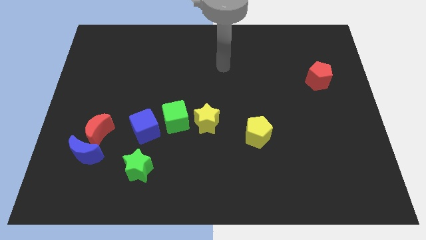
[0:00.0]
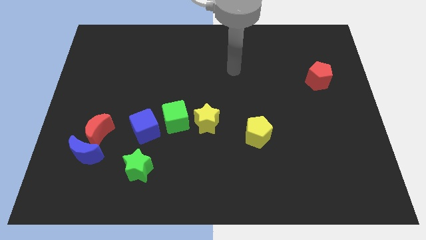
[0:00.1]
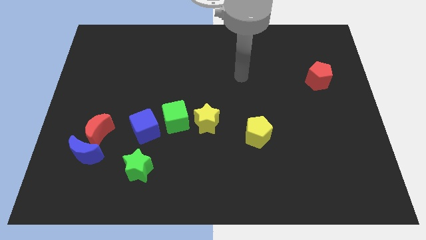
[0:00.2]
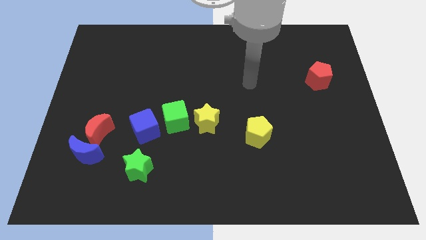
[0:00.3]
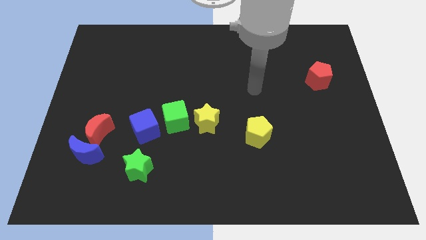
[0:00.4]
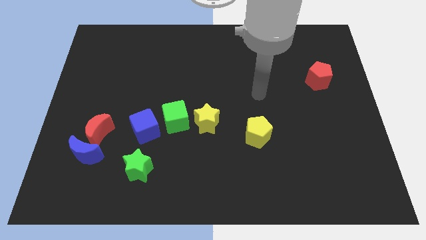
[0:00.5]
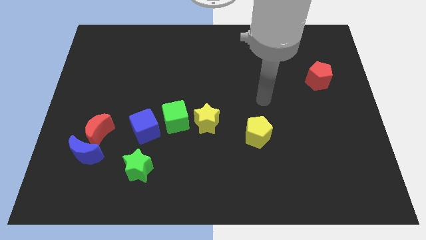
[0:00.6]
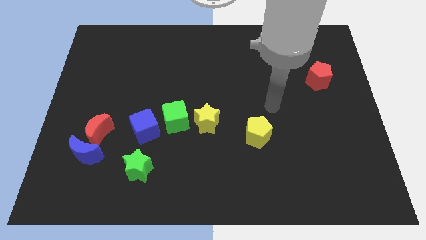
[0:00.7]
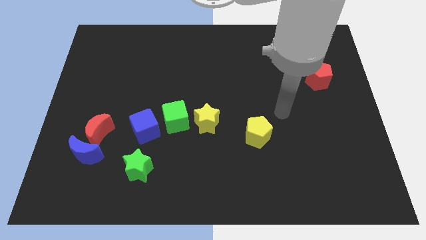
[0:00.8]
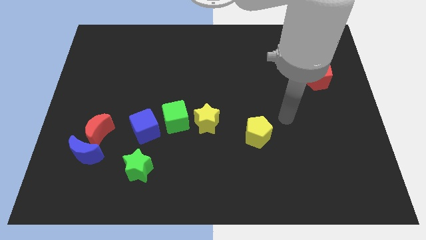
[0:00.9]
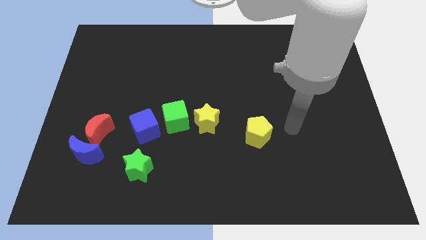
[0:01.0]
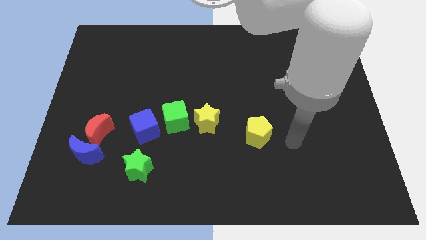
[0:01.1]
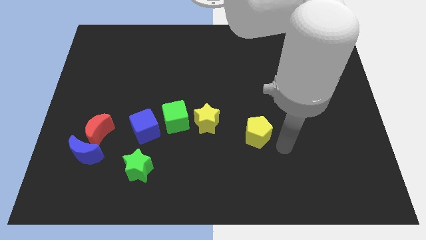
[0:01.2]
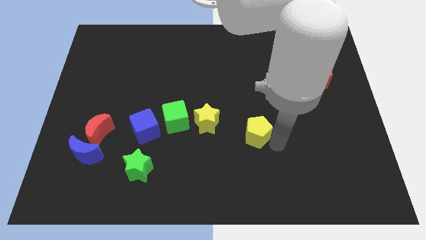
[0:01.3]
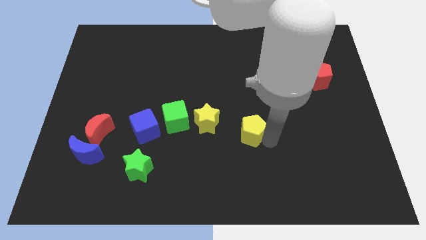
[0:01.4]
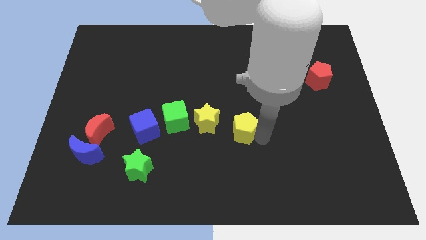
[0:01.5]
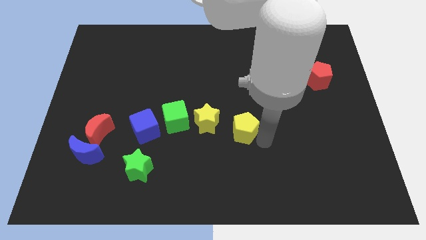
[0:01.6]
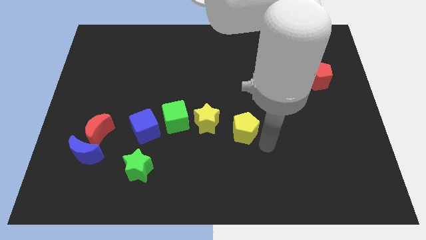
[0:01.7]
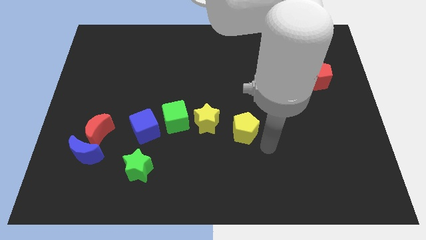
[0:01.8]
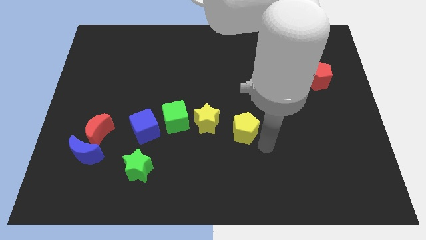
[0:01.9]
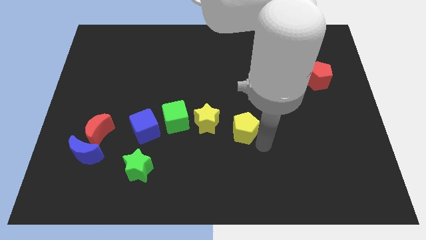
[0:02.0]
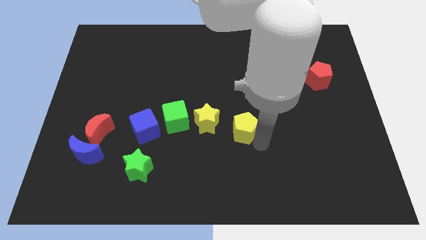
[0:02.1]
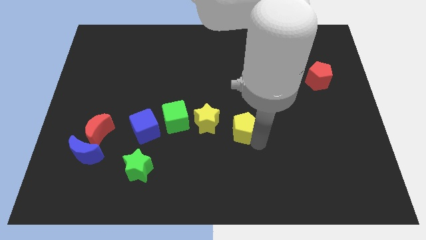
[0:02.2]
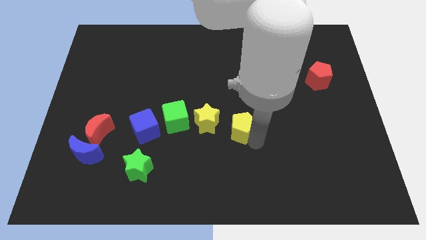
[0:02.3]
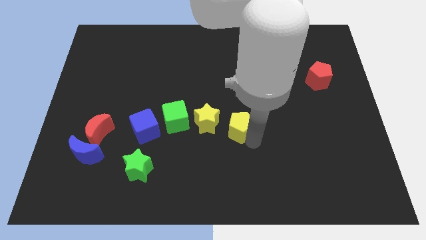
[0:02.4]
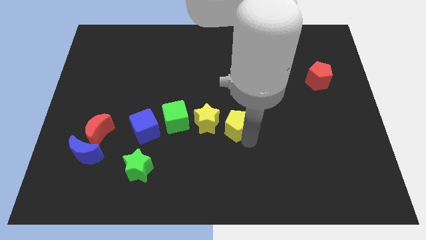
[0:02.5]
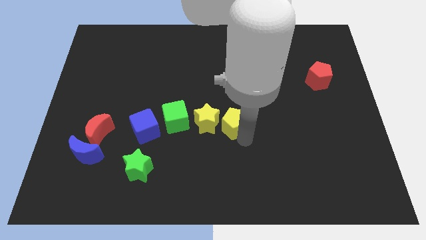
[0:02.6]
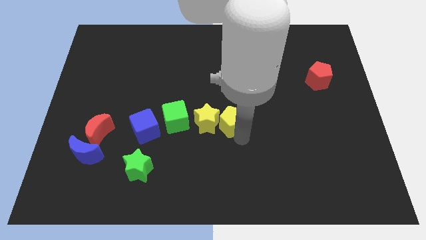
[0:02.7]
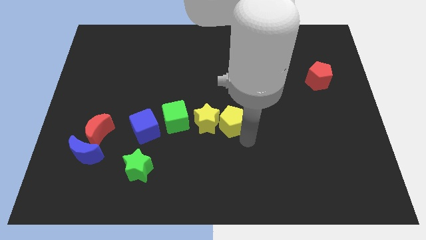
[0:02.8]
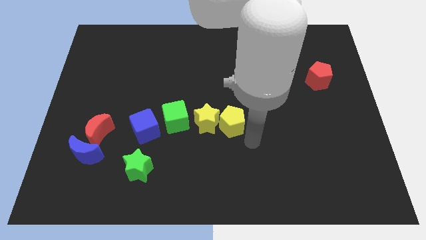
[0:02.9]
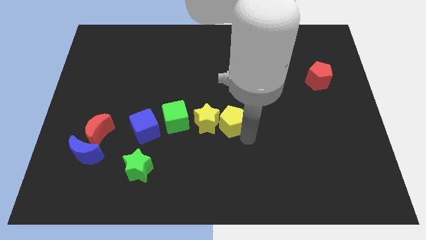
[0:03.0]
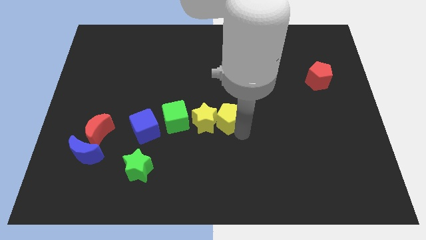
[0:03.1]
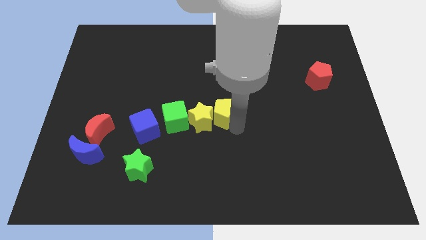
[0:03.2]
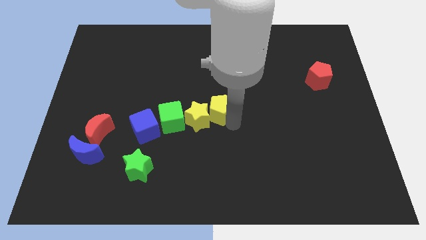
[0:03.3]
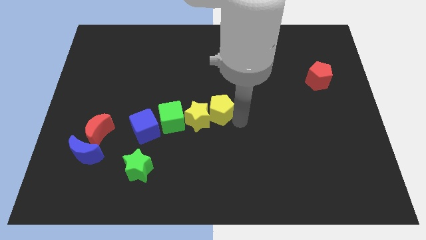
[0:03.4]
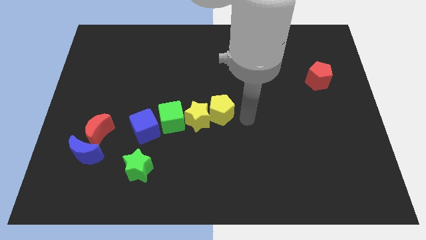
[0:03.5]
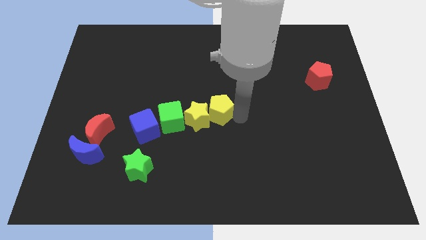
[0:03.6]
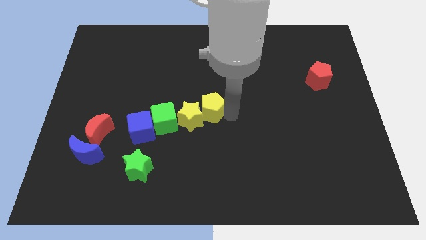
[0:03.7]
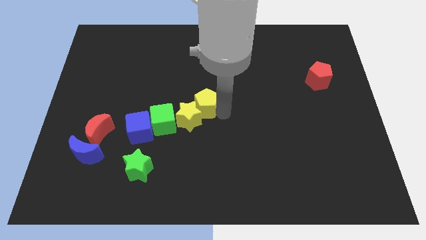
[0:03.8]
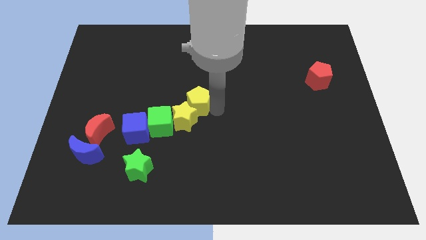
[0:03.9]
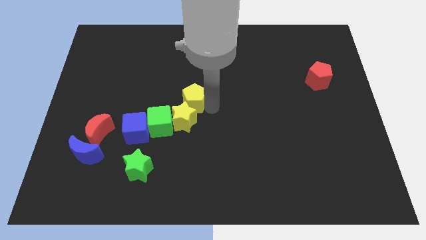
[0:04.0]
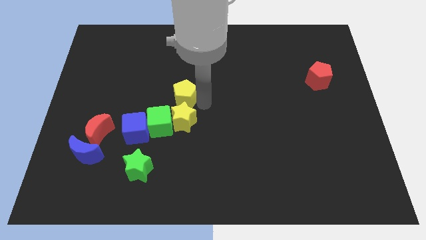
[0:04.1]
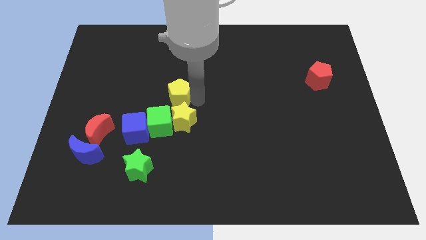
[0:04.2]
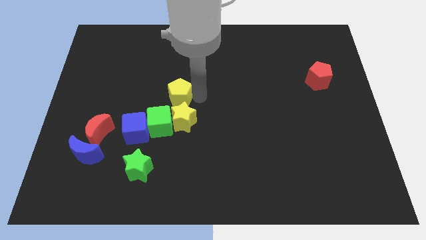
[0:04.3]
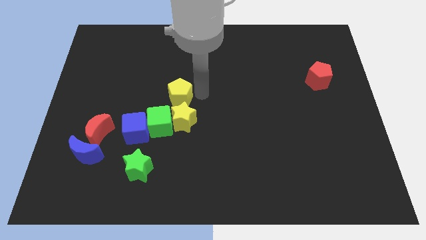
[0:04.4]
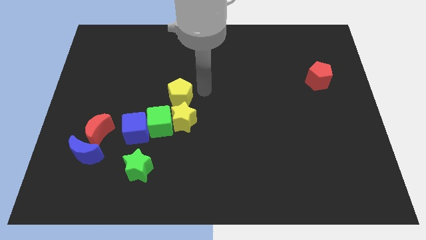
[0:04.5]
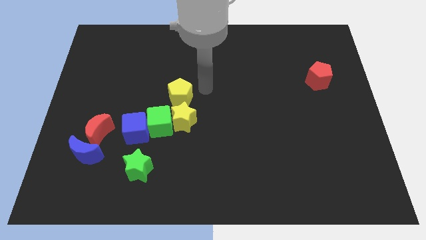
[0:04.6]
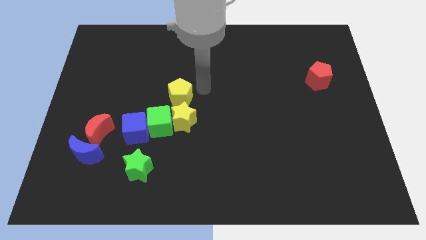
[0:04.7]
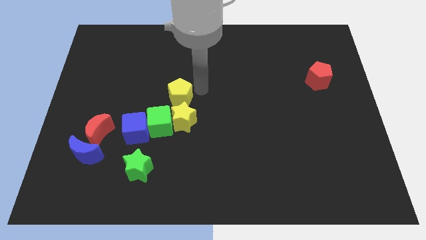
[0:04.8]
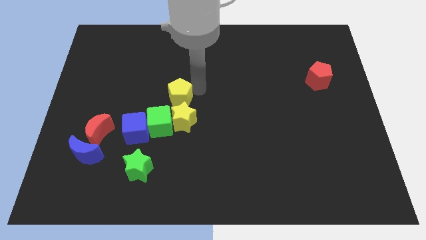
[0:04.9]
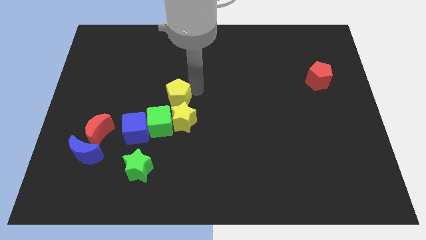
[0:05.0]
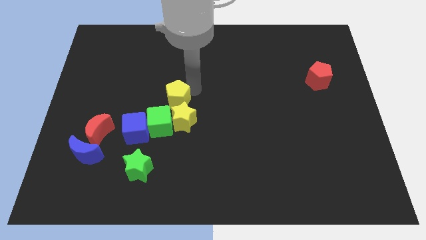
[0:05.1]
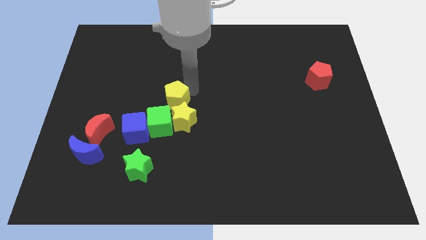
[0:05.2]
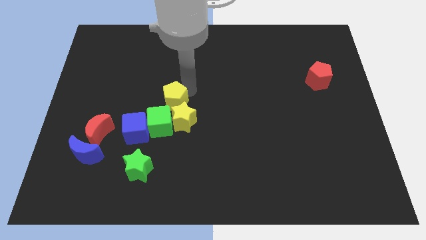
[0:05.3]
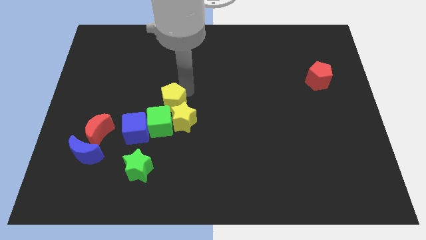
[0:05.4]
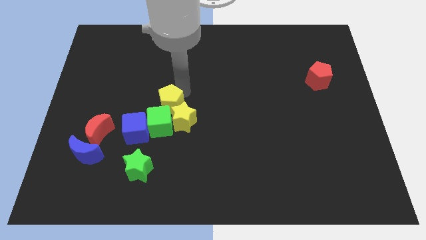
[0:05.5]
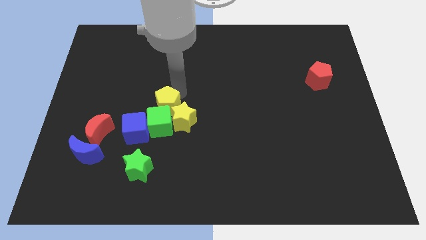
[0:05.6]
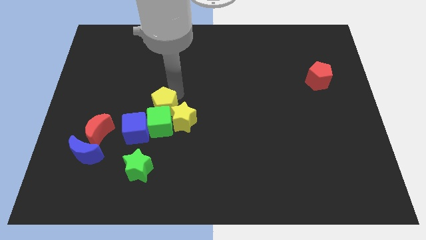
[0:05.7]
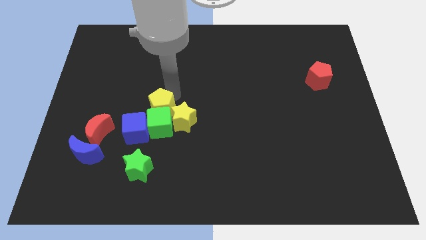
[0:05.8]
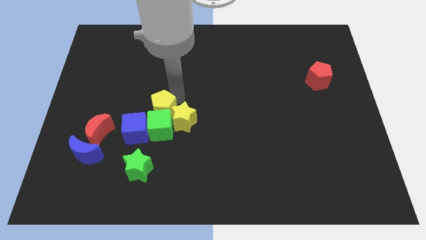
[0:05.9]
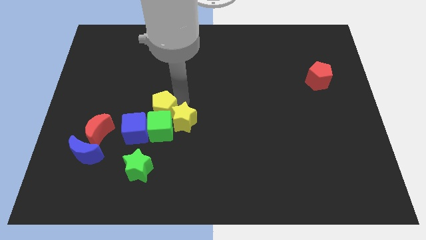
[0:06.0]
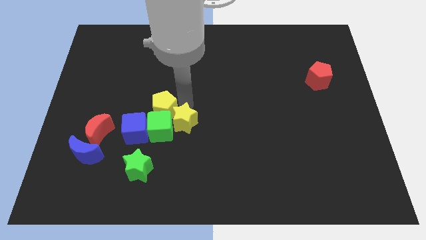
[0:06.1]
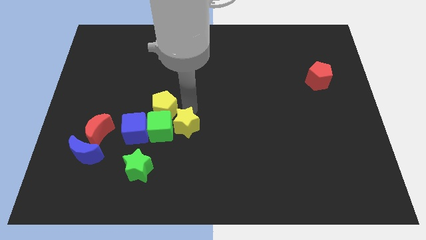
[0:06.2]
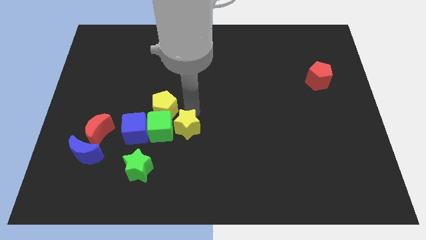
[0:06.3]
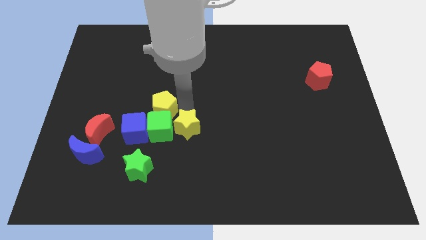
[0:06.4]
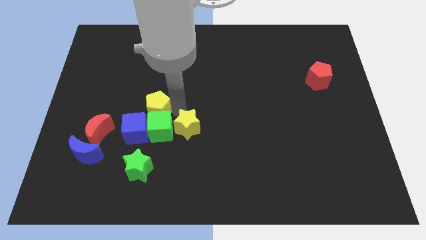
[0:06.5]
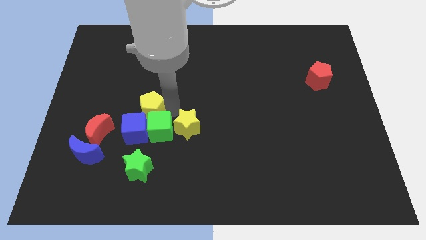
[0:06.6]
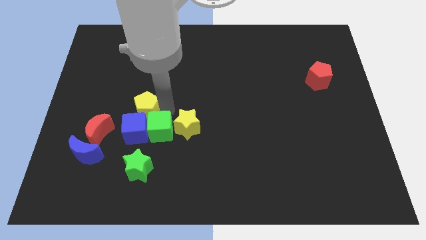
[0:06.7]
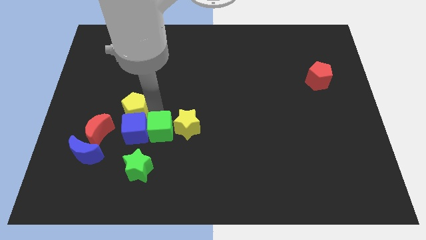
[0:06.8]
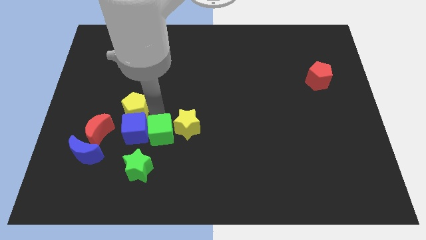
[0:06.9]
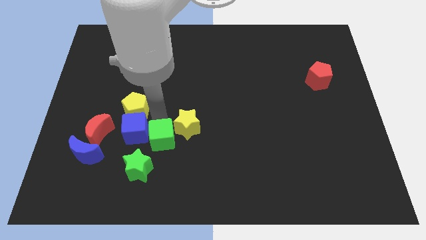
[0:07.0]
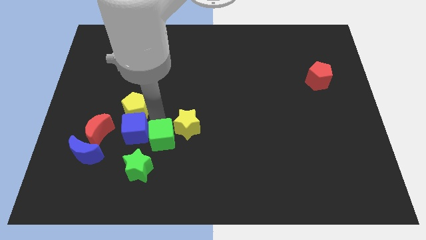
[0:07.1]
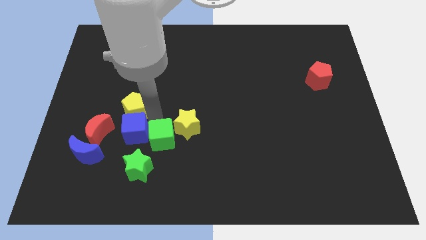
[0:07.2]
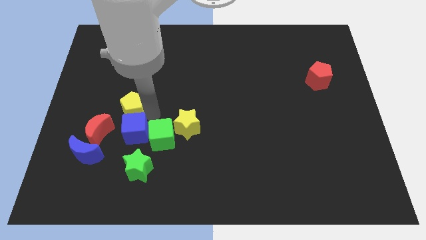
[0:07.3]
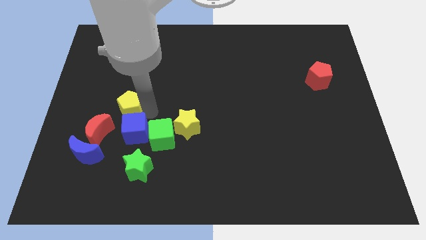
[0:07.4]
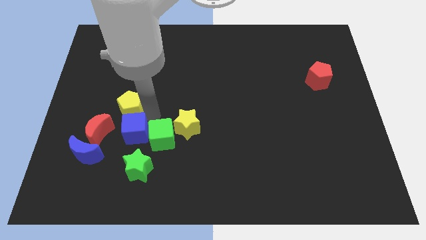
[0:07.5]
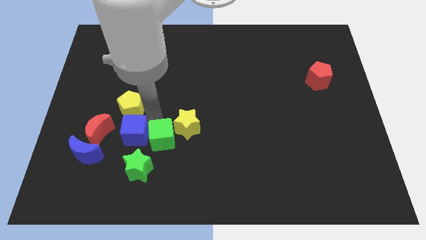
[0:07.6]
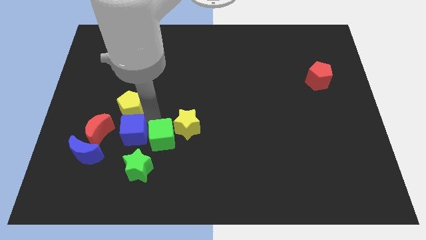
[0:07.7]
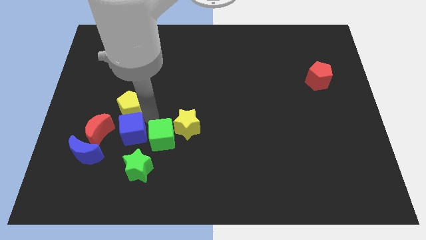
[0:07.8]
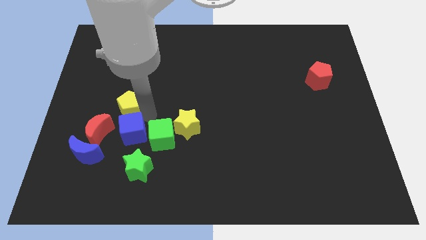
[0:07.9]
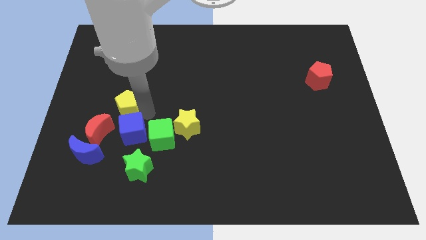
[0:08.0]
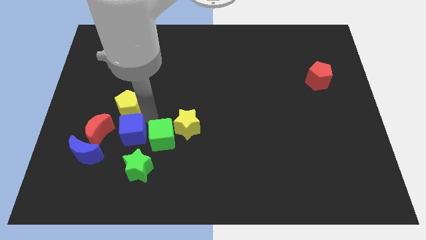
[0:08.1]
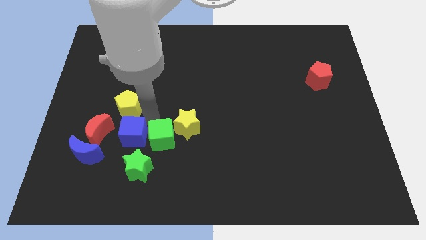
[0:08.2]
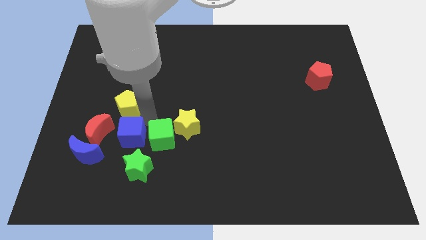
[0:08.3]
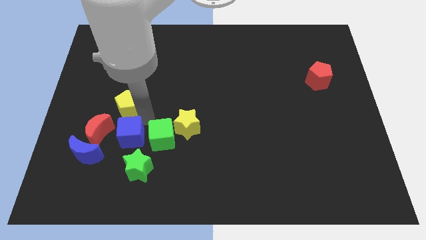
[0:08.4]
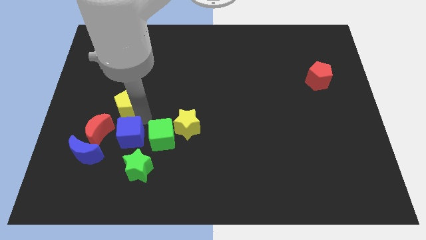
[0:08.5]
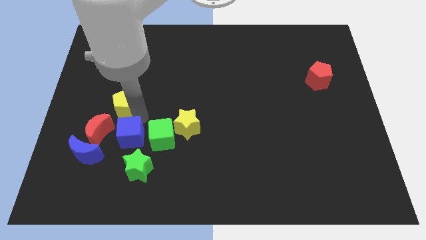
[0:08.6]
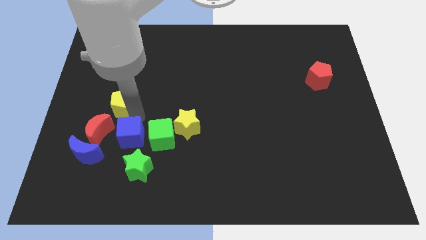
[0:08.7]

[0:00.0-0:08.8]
move the yellow pentagon to the top side of the red moon
